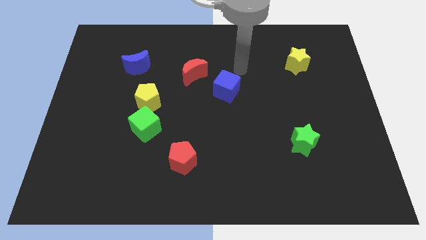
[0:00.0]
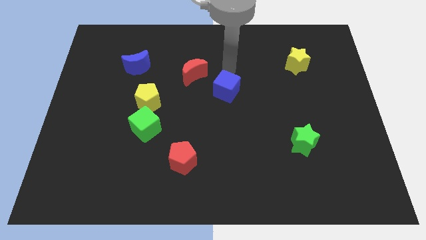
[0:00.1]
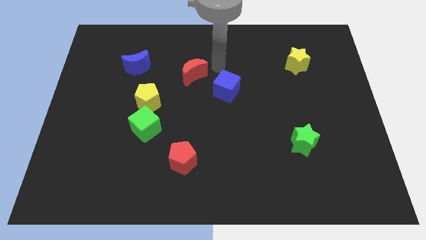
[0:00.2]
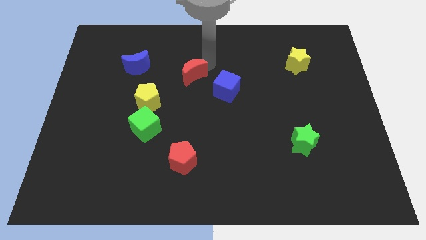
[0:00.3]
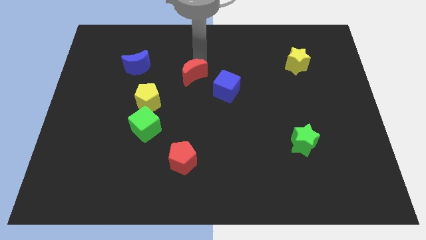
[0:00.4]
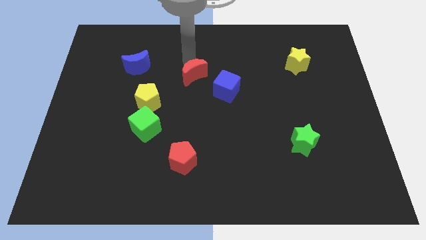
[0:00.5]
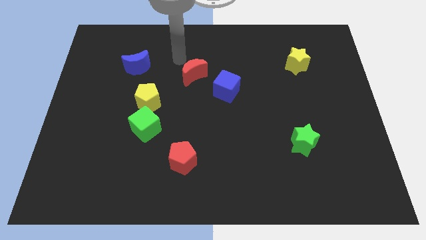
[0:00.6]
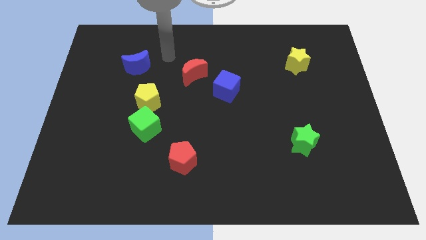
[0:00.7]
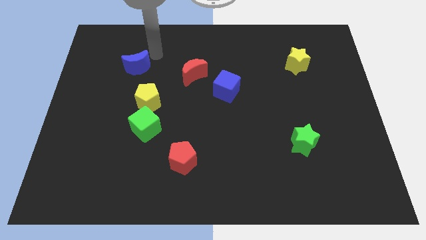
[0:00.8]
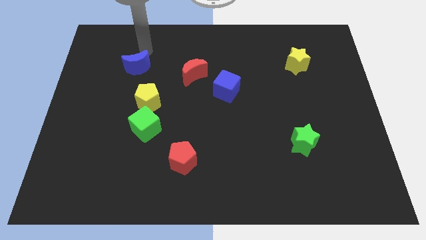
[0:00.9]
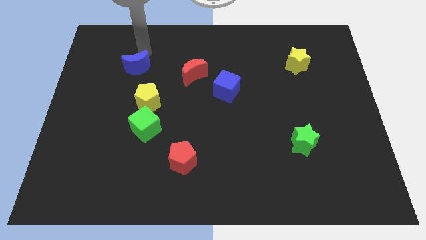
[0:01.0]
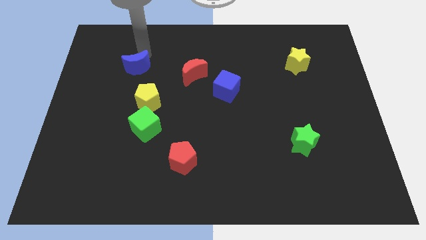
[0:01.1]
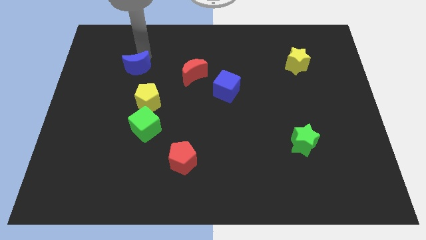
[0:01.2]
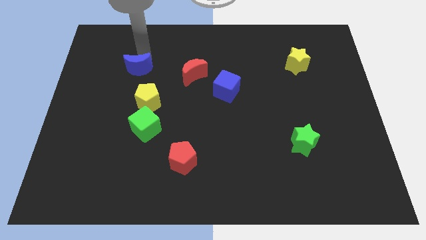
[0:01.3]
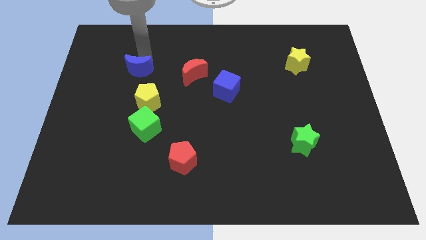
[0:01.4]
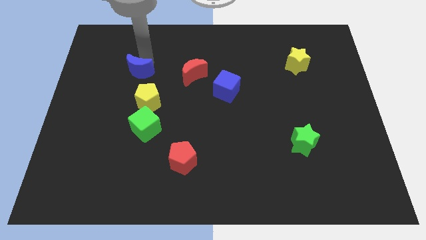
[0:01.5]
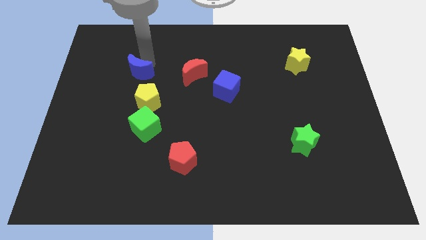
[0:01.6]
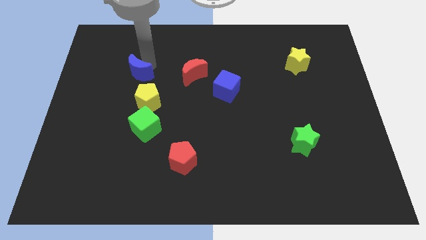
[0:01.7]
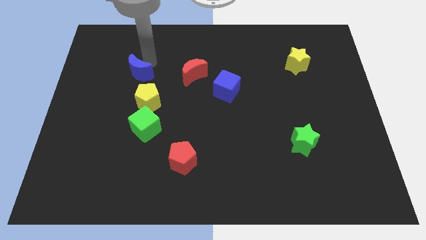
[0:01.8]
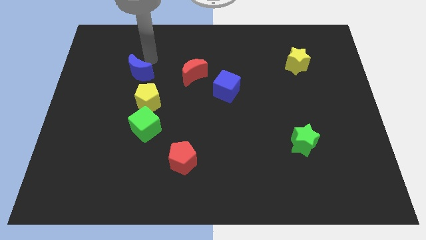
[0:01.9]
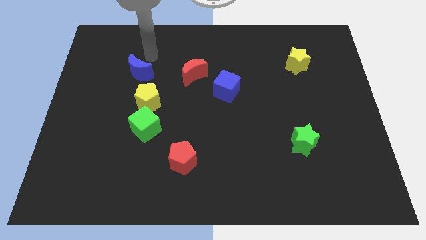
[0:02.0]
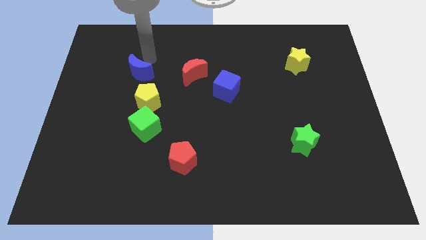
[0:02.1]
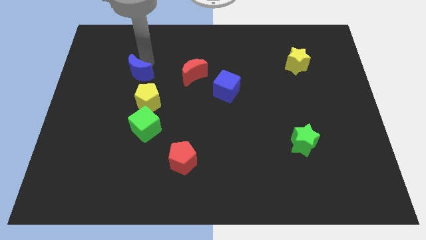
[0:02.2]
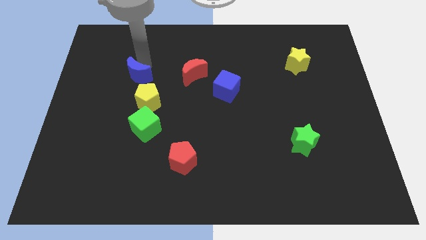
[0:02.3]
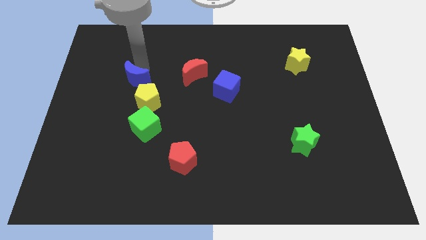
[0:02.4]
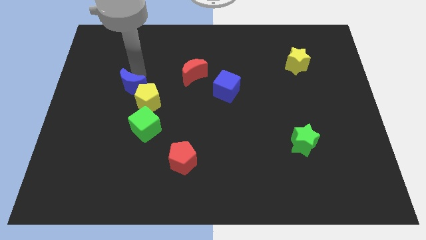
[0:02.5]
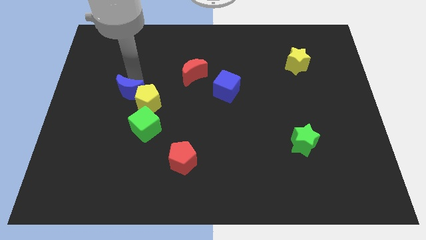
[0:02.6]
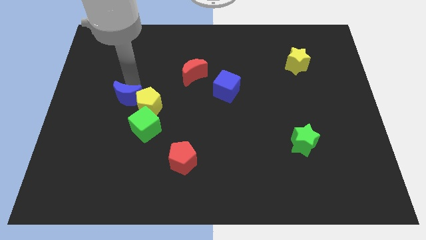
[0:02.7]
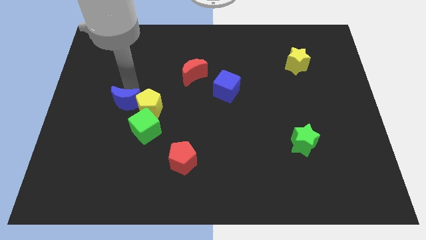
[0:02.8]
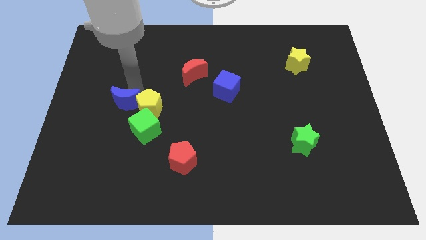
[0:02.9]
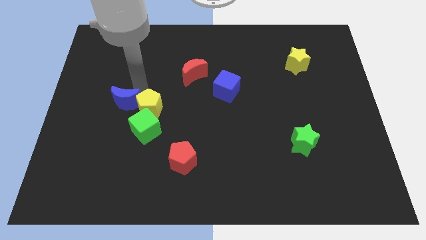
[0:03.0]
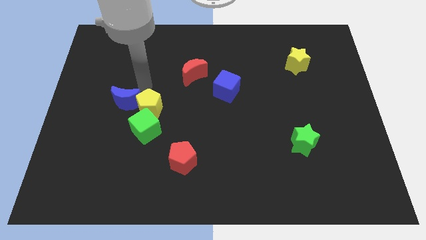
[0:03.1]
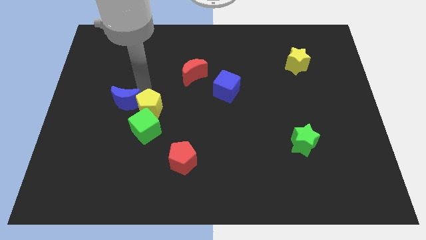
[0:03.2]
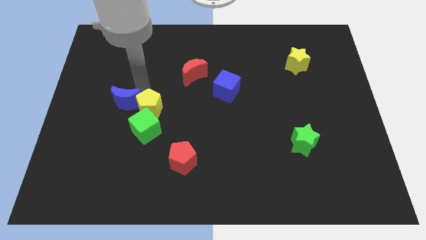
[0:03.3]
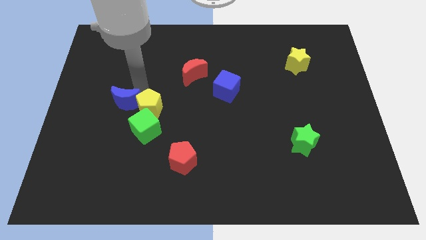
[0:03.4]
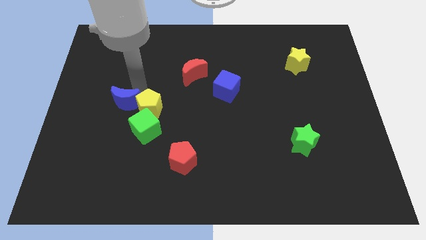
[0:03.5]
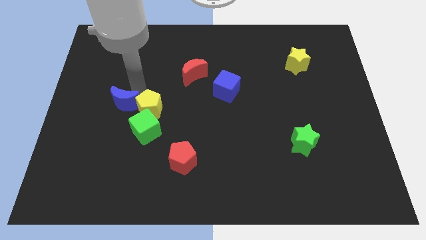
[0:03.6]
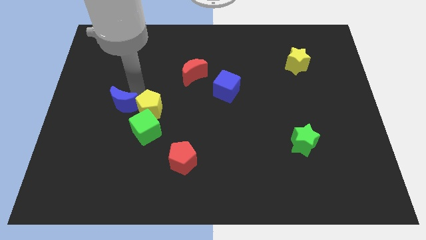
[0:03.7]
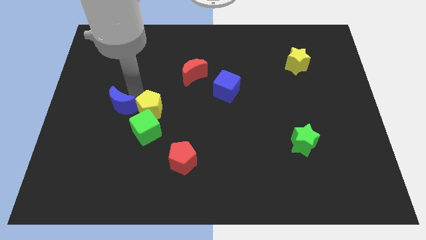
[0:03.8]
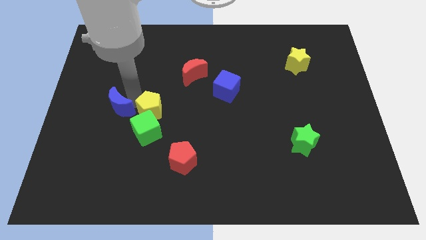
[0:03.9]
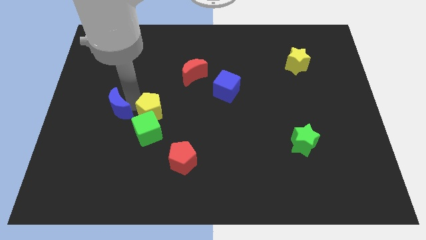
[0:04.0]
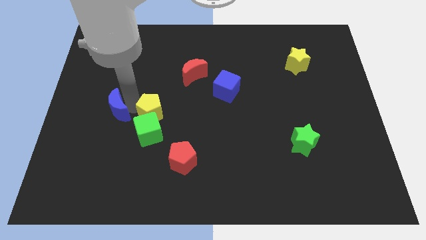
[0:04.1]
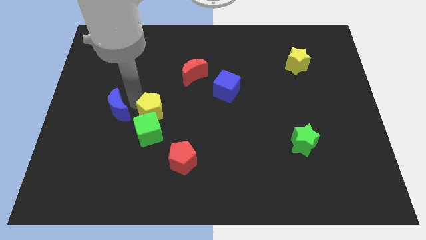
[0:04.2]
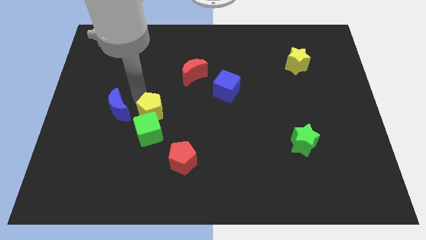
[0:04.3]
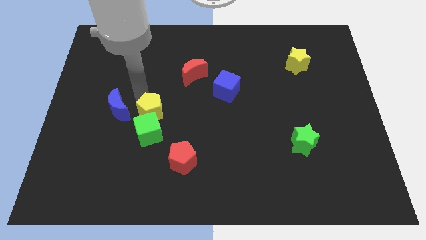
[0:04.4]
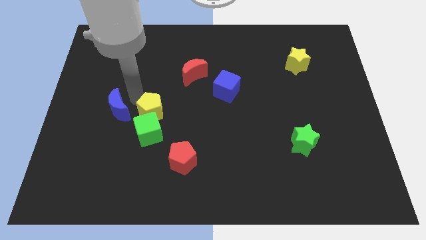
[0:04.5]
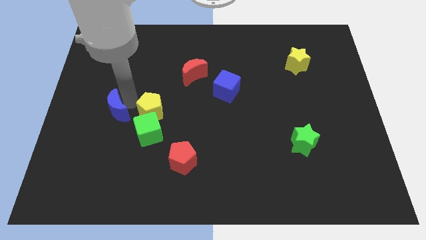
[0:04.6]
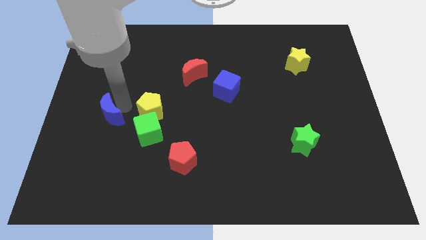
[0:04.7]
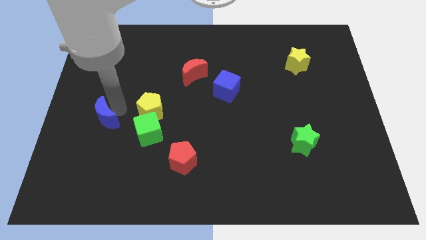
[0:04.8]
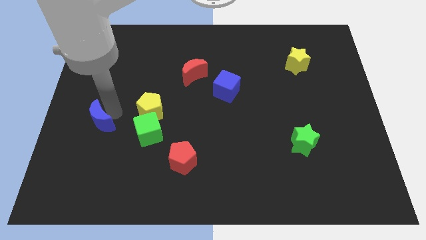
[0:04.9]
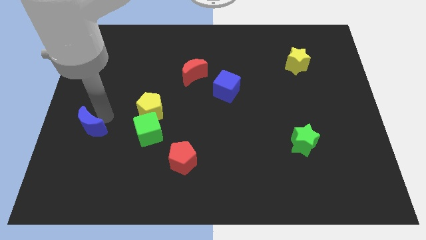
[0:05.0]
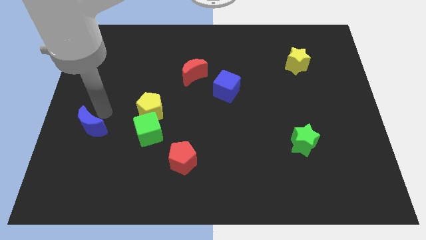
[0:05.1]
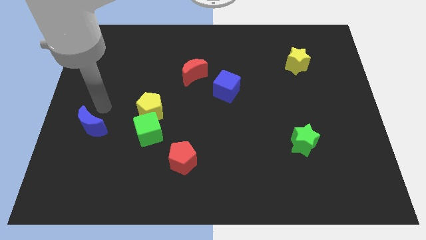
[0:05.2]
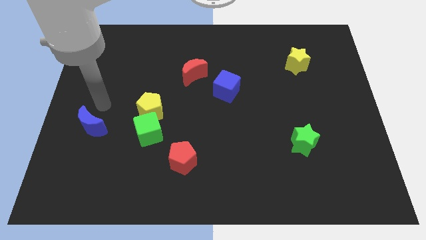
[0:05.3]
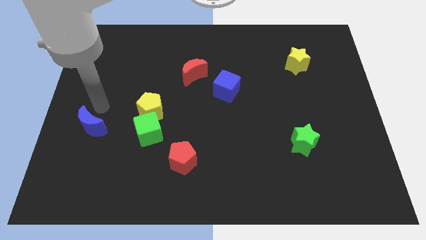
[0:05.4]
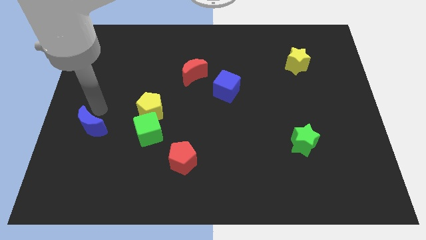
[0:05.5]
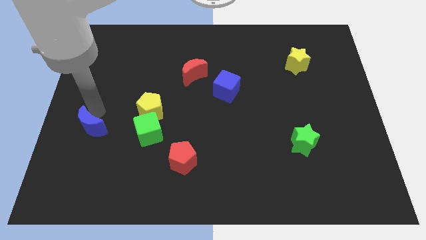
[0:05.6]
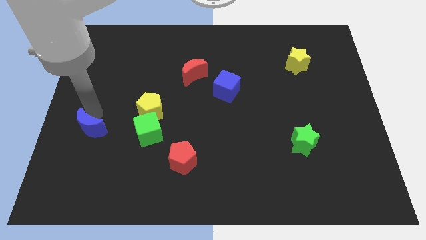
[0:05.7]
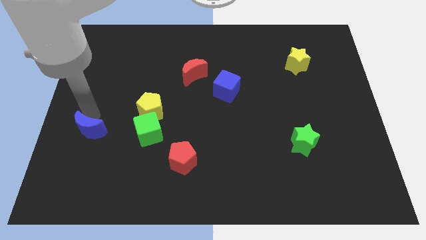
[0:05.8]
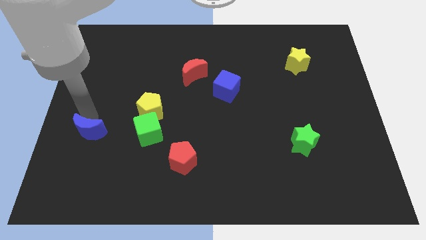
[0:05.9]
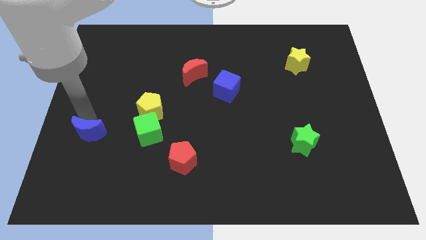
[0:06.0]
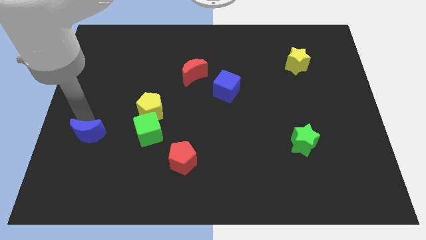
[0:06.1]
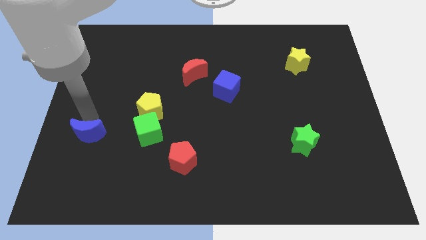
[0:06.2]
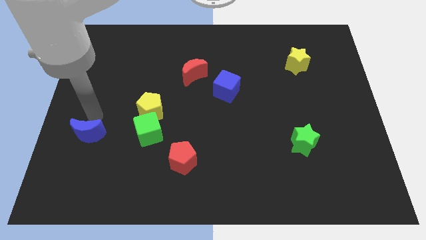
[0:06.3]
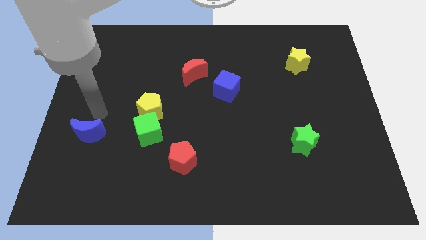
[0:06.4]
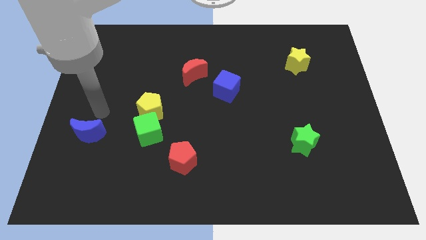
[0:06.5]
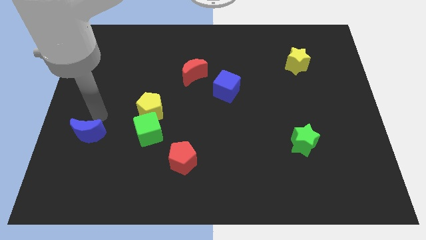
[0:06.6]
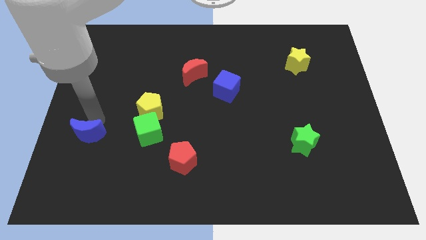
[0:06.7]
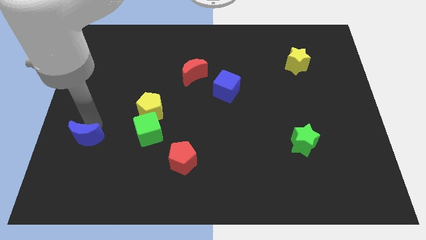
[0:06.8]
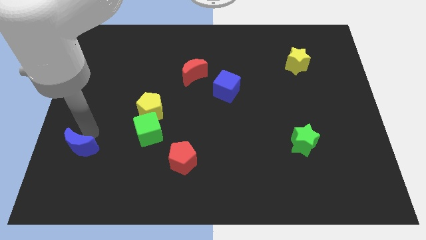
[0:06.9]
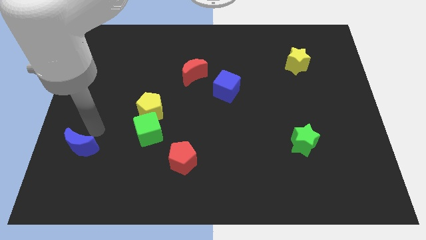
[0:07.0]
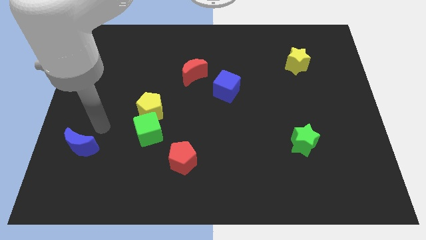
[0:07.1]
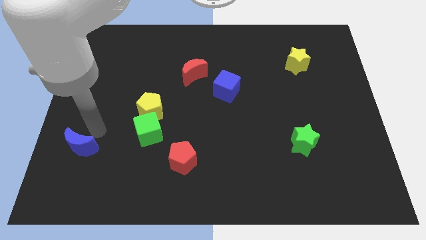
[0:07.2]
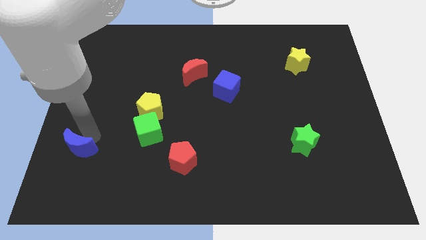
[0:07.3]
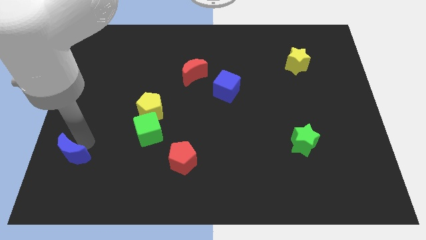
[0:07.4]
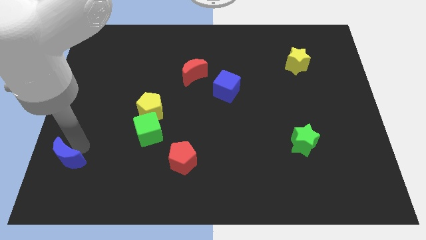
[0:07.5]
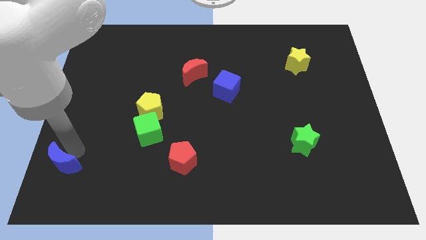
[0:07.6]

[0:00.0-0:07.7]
push the blue moon to the bottom left corner
